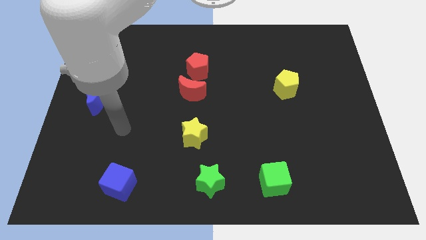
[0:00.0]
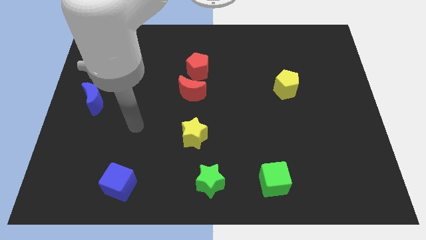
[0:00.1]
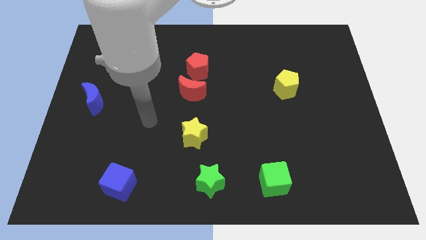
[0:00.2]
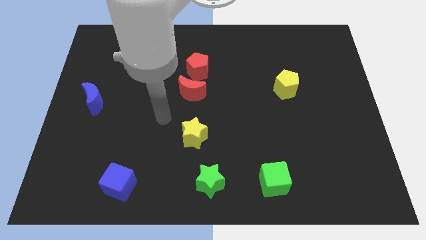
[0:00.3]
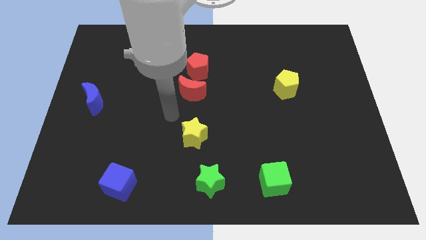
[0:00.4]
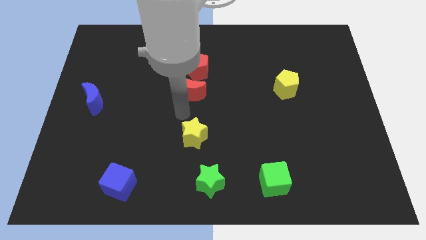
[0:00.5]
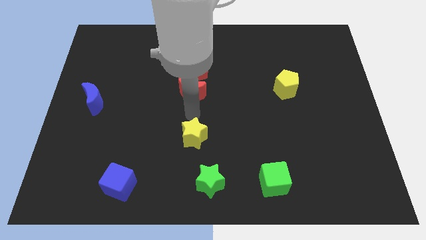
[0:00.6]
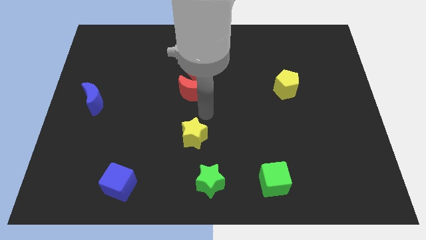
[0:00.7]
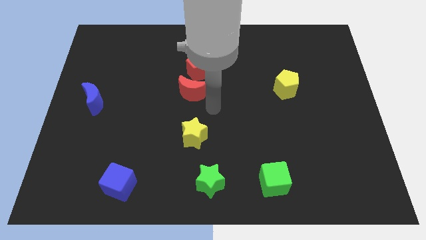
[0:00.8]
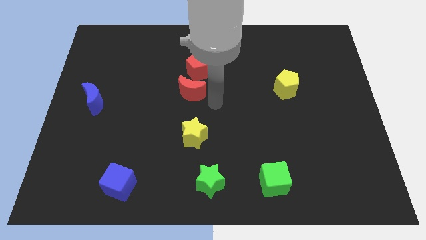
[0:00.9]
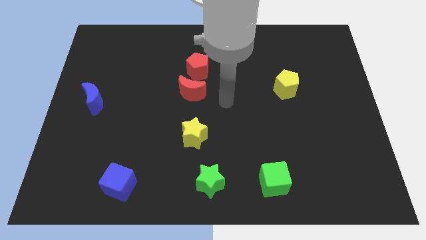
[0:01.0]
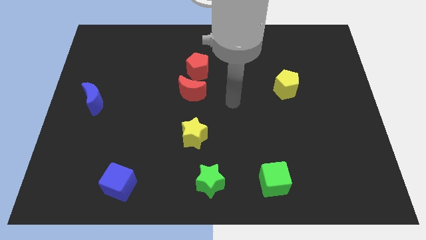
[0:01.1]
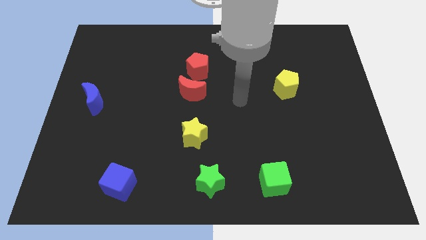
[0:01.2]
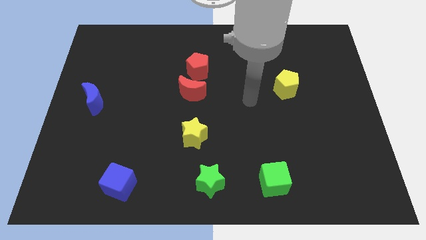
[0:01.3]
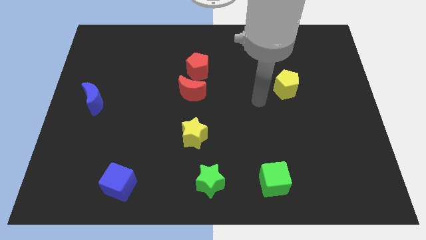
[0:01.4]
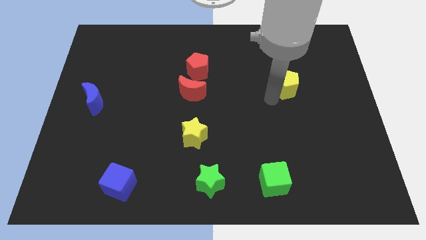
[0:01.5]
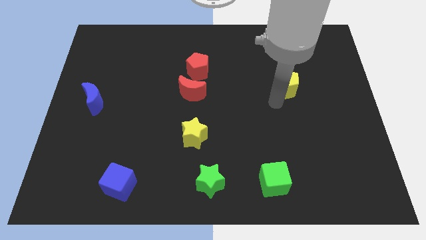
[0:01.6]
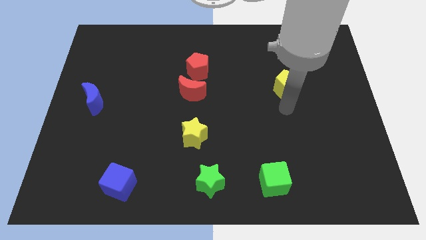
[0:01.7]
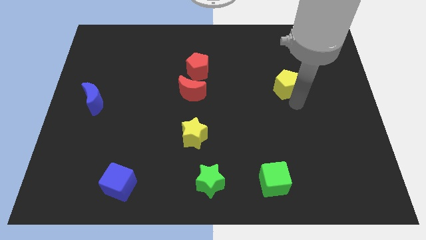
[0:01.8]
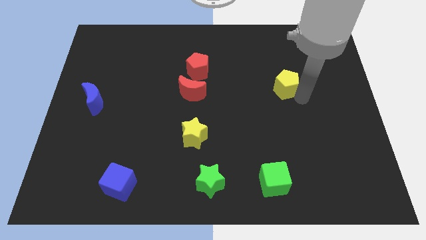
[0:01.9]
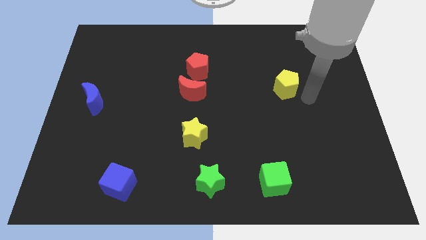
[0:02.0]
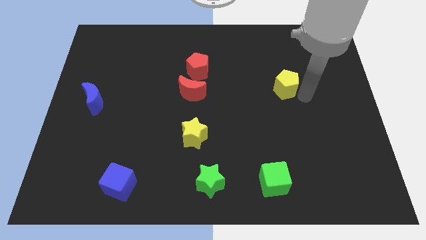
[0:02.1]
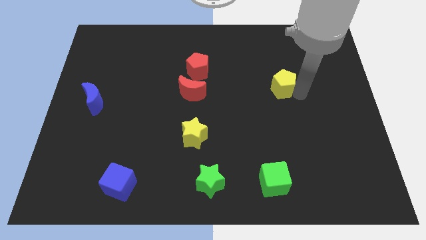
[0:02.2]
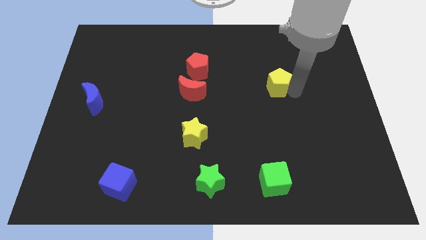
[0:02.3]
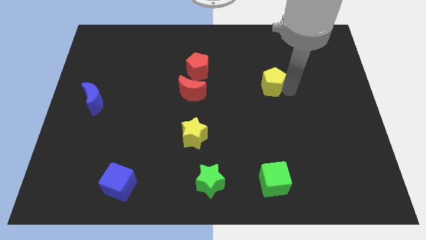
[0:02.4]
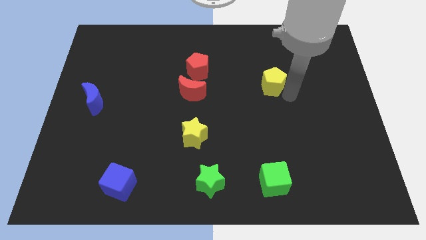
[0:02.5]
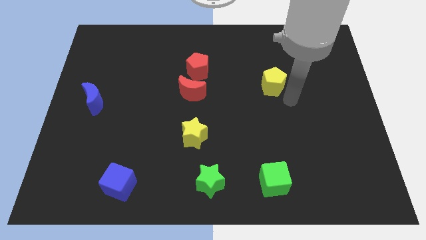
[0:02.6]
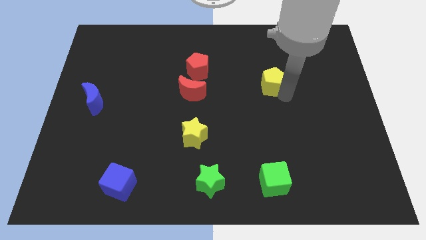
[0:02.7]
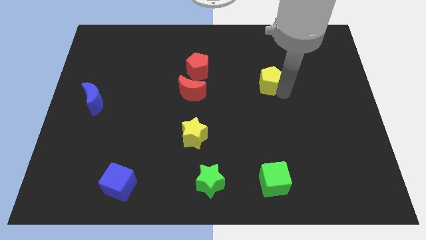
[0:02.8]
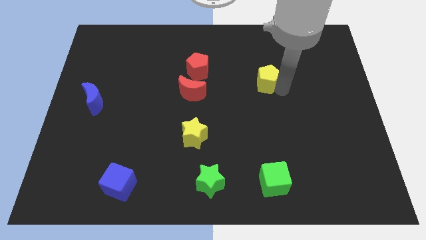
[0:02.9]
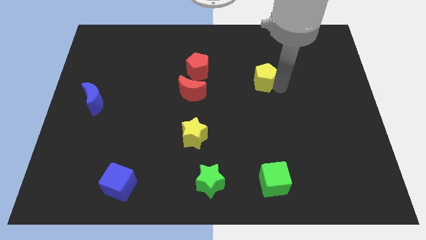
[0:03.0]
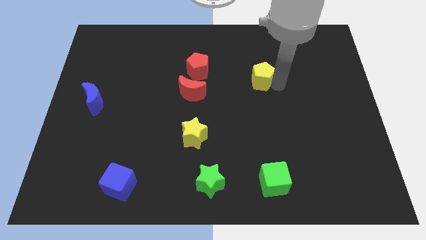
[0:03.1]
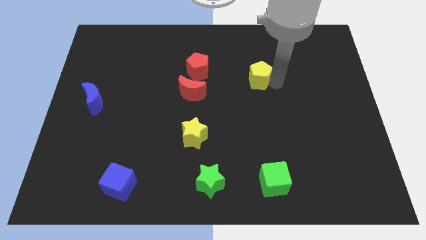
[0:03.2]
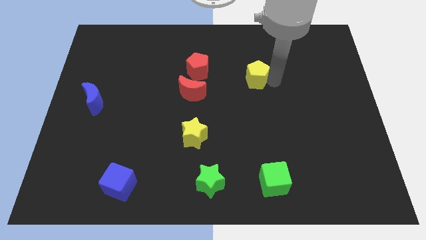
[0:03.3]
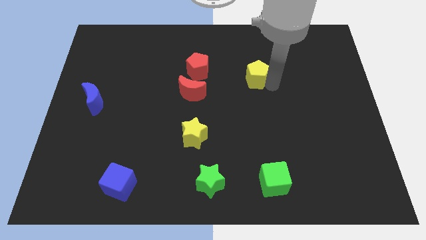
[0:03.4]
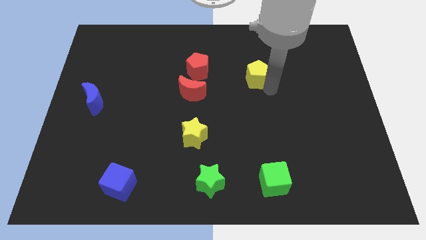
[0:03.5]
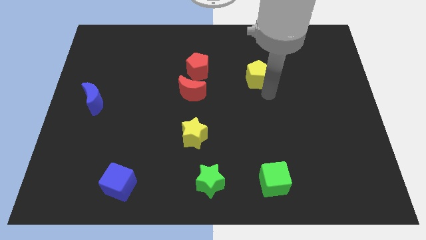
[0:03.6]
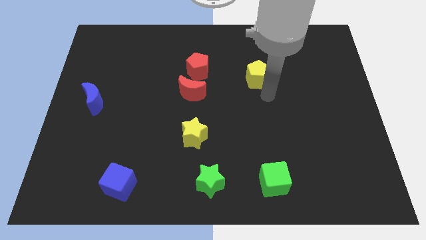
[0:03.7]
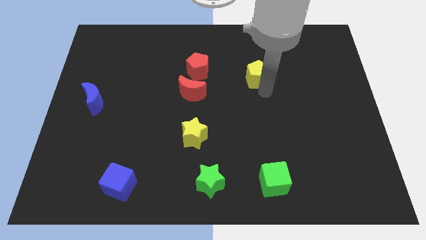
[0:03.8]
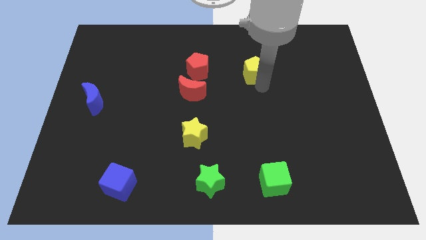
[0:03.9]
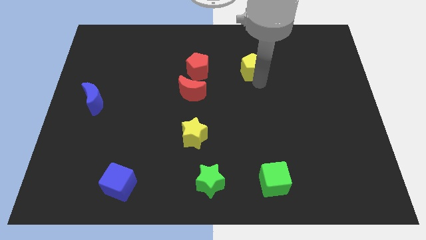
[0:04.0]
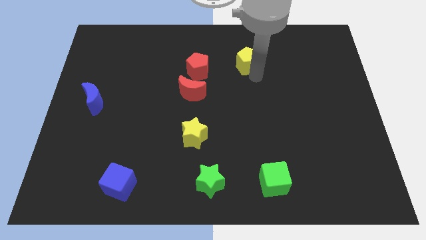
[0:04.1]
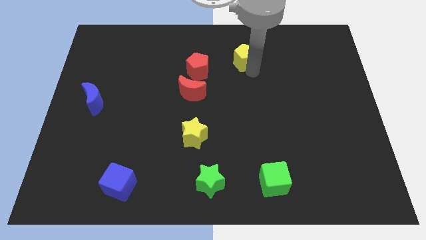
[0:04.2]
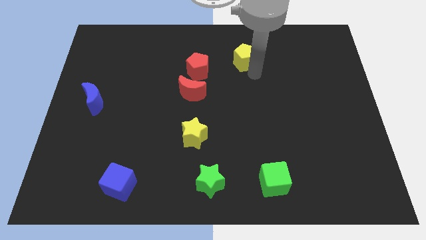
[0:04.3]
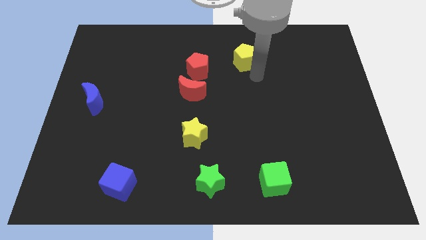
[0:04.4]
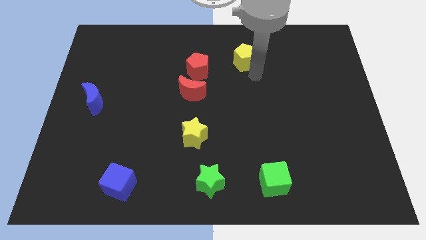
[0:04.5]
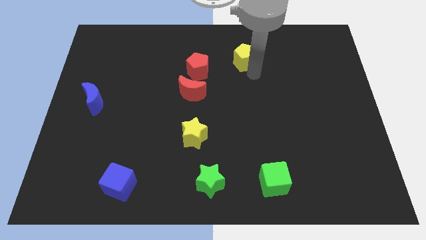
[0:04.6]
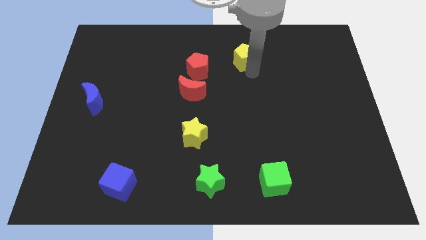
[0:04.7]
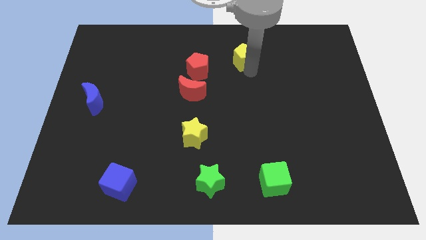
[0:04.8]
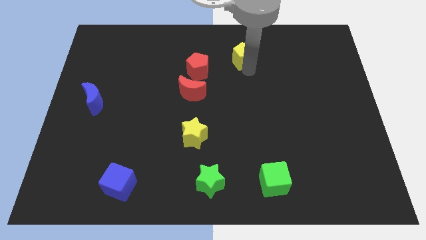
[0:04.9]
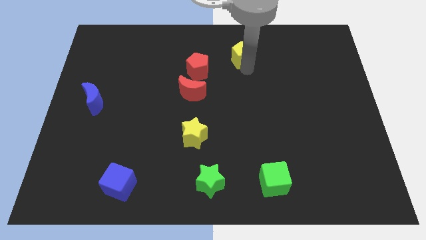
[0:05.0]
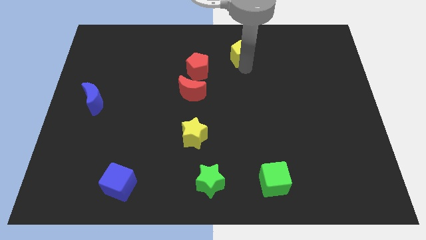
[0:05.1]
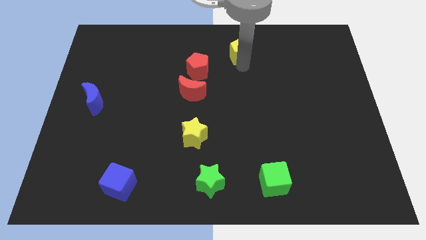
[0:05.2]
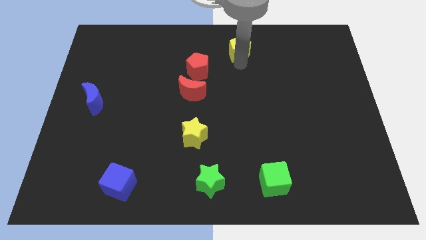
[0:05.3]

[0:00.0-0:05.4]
put the yellow pentagon to the top side

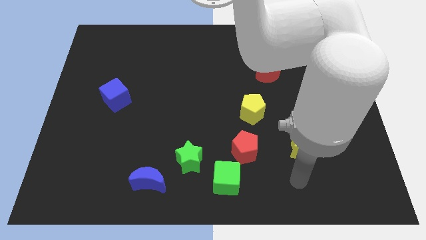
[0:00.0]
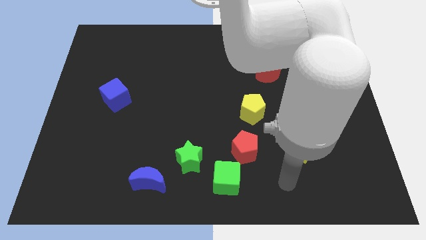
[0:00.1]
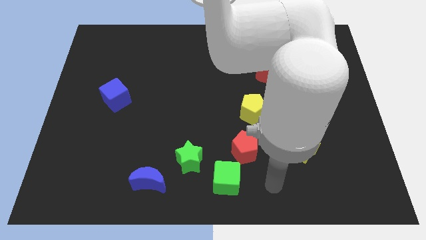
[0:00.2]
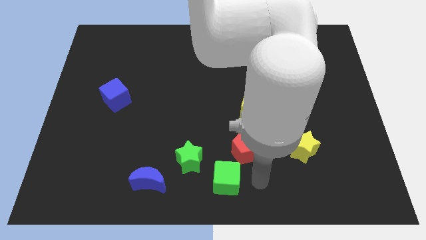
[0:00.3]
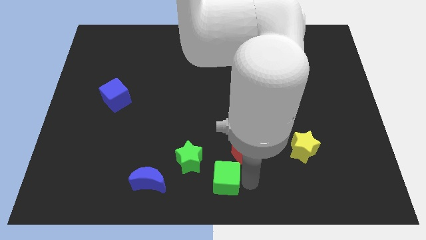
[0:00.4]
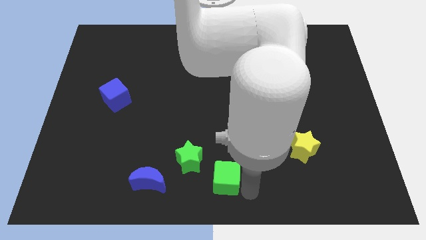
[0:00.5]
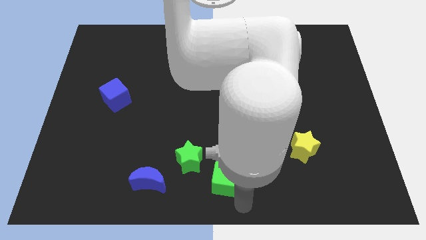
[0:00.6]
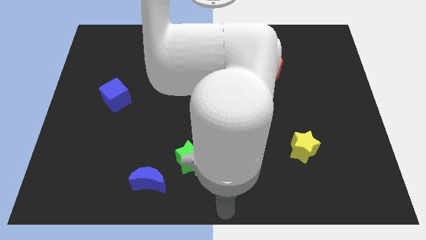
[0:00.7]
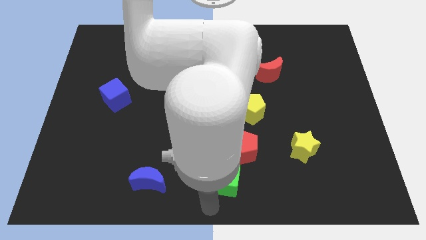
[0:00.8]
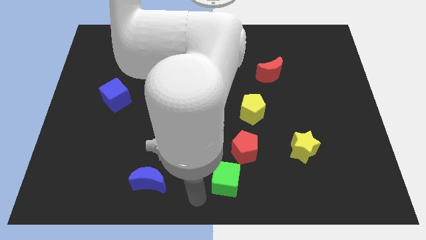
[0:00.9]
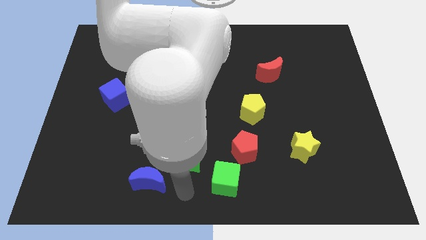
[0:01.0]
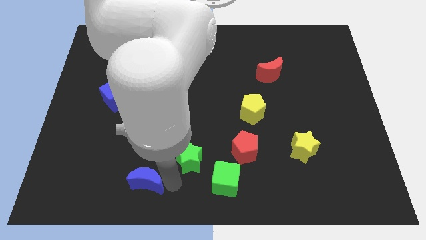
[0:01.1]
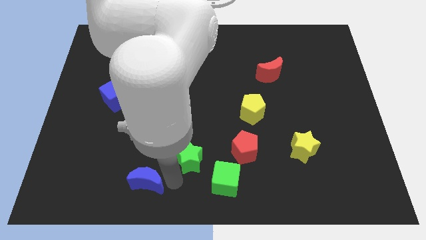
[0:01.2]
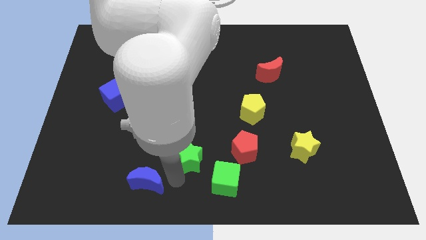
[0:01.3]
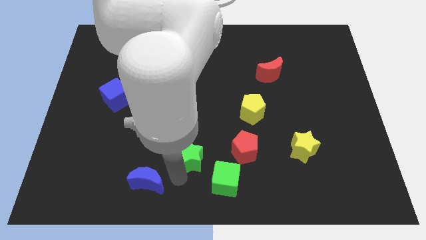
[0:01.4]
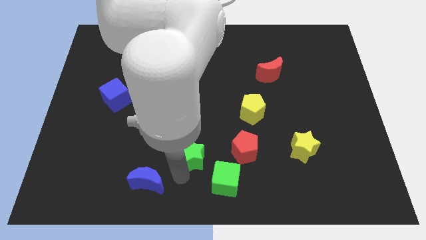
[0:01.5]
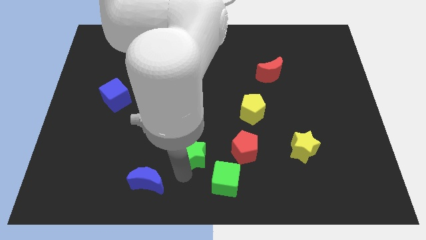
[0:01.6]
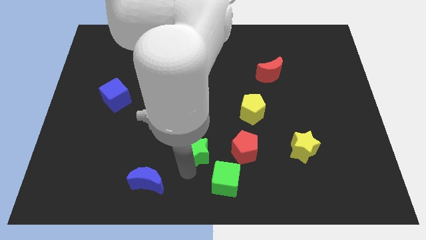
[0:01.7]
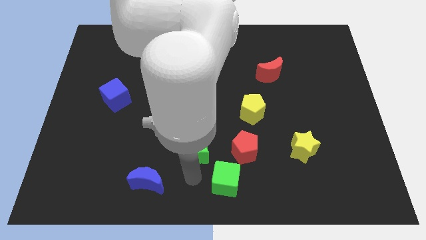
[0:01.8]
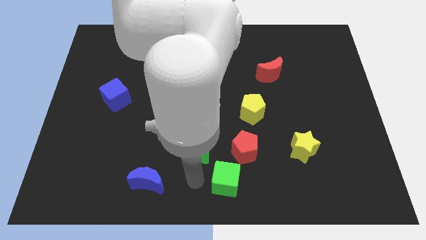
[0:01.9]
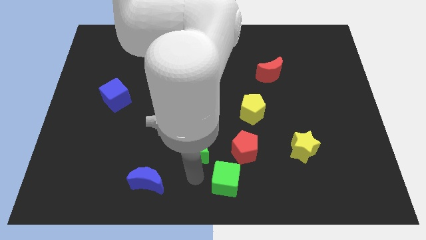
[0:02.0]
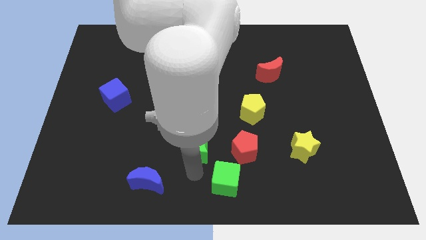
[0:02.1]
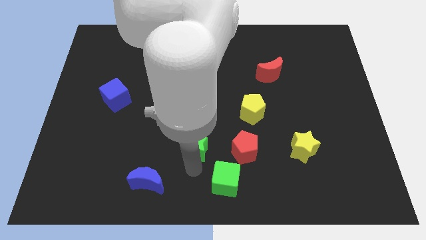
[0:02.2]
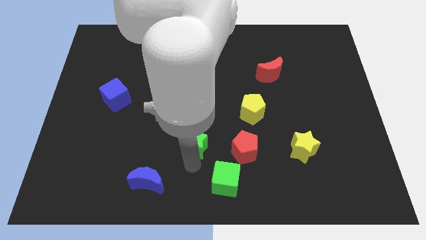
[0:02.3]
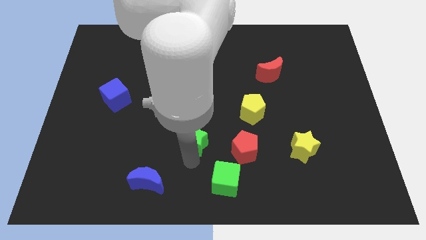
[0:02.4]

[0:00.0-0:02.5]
push the green star to the middle
